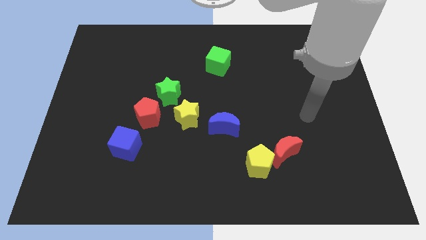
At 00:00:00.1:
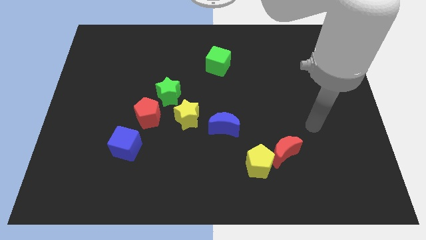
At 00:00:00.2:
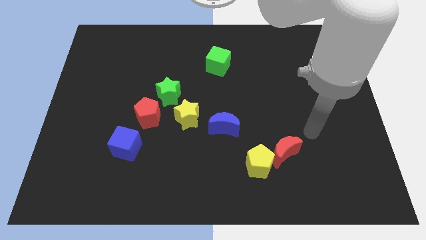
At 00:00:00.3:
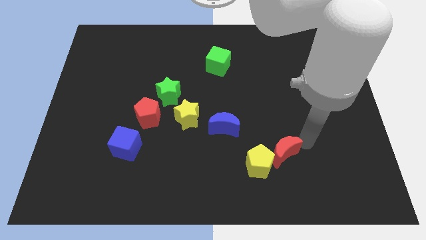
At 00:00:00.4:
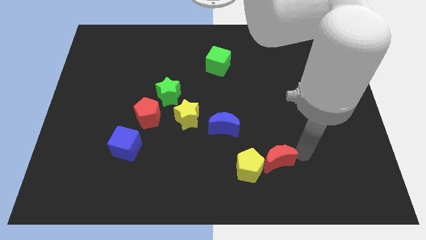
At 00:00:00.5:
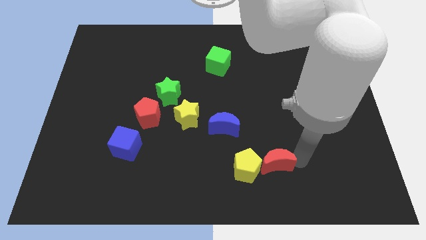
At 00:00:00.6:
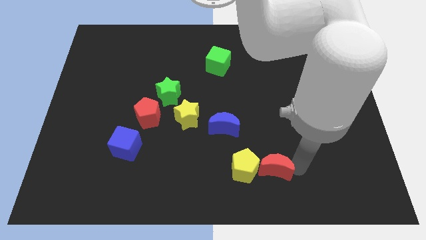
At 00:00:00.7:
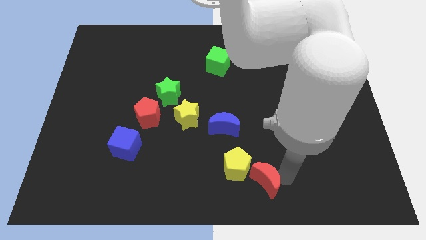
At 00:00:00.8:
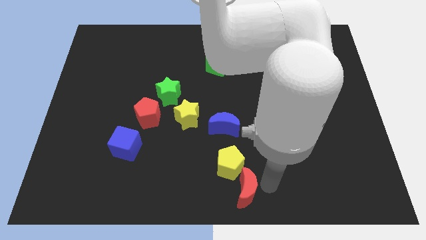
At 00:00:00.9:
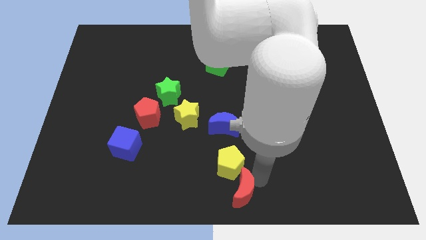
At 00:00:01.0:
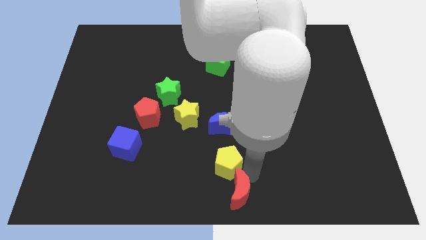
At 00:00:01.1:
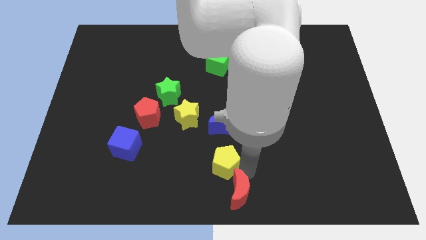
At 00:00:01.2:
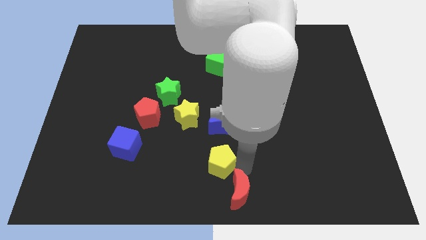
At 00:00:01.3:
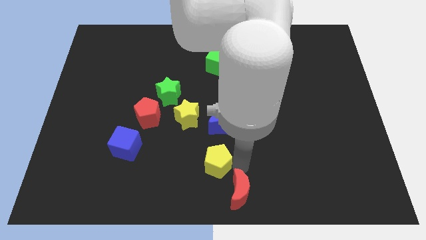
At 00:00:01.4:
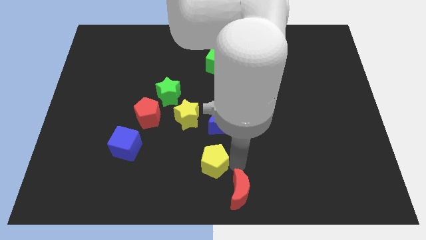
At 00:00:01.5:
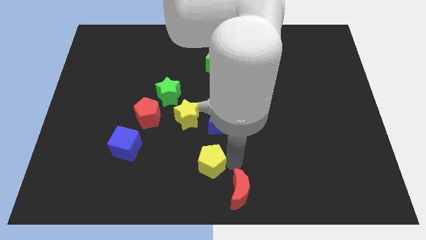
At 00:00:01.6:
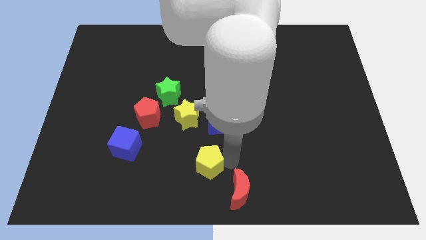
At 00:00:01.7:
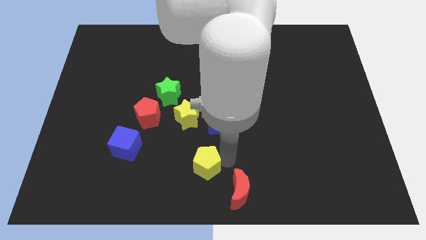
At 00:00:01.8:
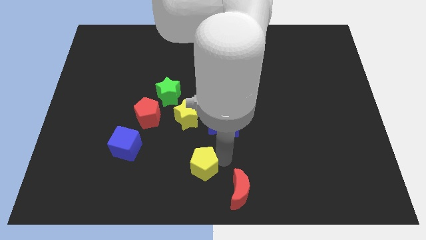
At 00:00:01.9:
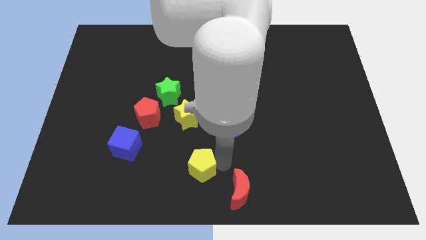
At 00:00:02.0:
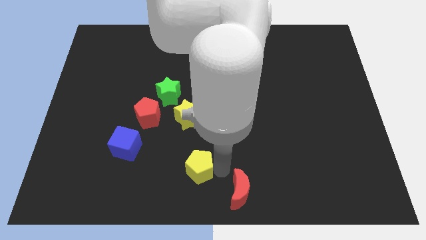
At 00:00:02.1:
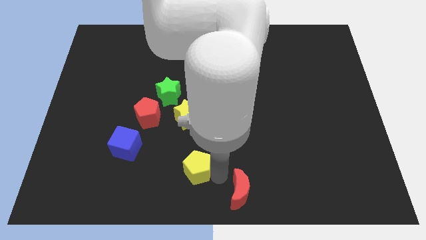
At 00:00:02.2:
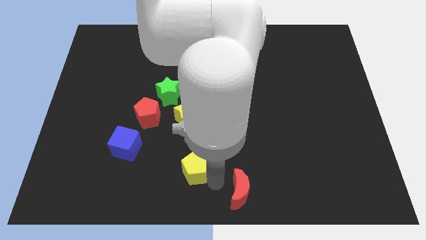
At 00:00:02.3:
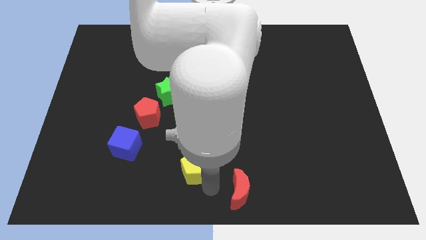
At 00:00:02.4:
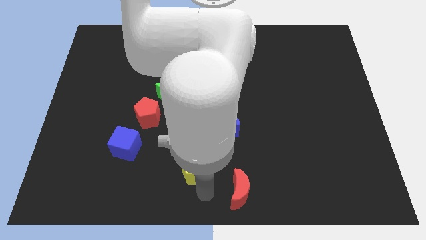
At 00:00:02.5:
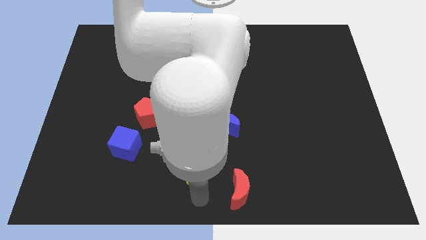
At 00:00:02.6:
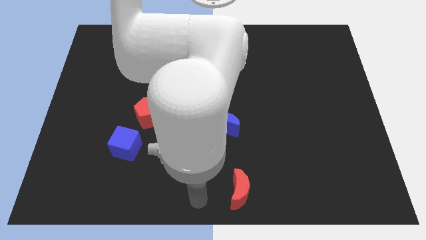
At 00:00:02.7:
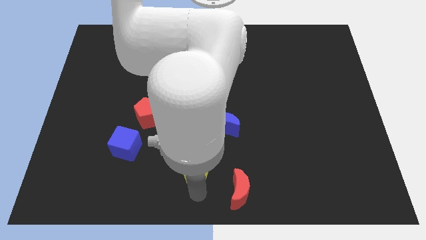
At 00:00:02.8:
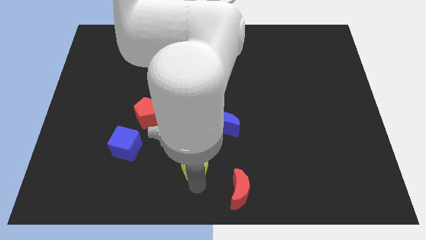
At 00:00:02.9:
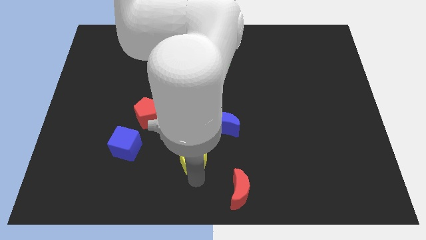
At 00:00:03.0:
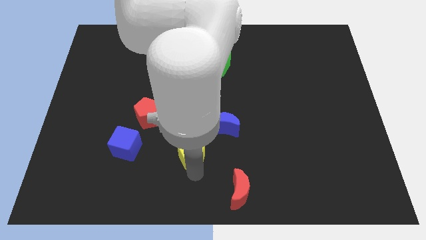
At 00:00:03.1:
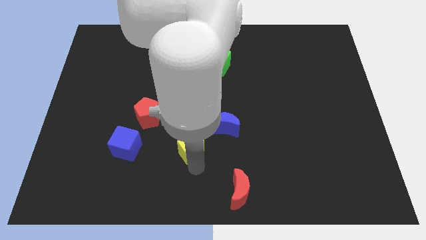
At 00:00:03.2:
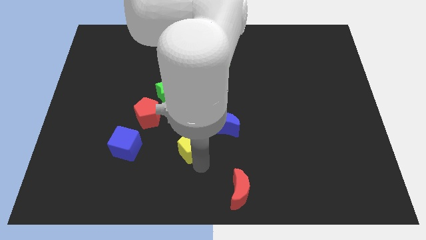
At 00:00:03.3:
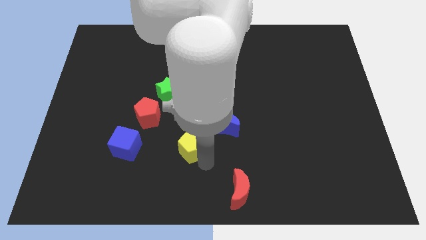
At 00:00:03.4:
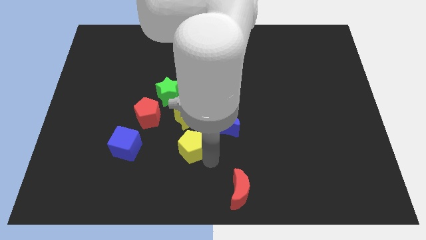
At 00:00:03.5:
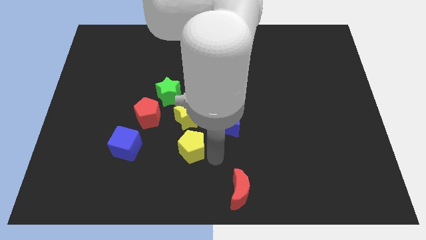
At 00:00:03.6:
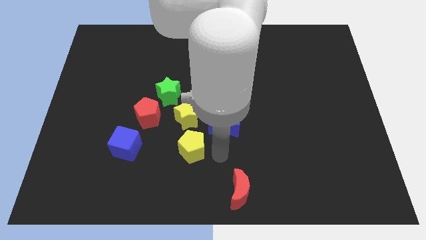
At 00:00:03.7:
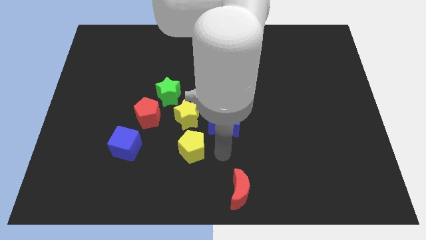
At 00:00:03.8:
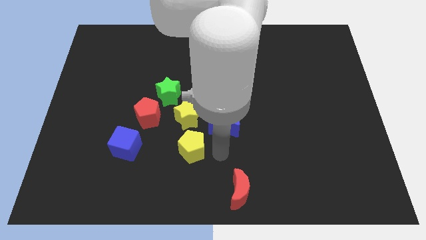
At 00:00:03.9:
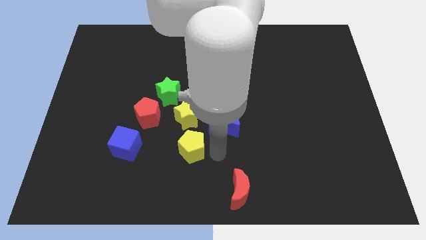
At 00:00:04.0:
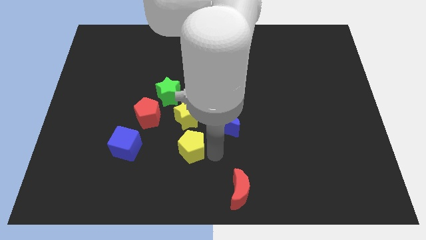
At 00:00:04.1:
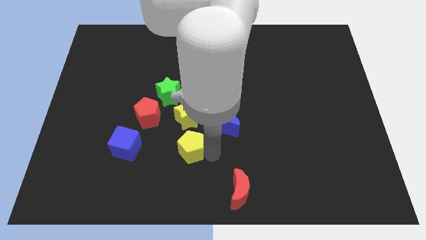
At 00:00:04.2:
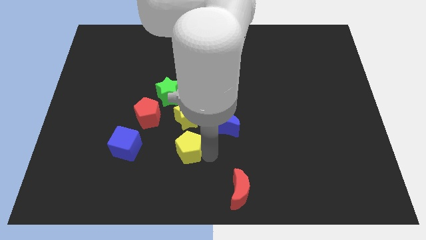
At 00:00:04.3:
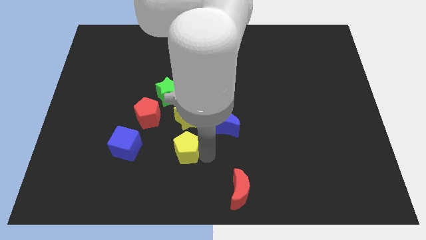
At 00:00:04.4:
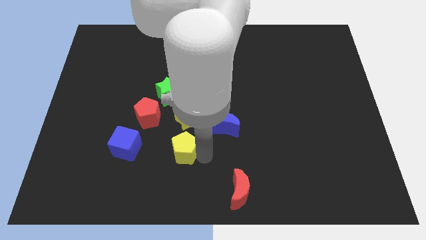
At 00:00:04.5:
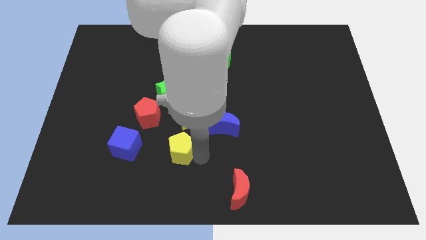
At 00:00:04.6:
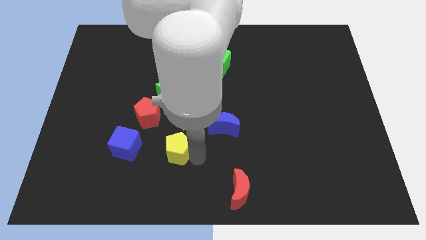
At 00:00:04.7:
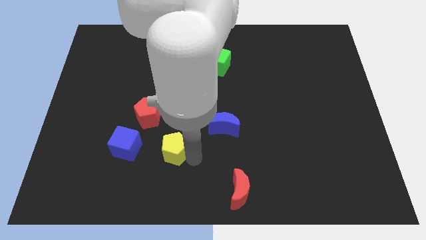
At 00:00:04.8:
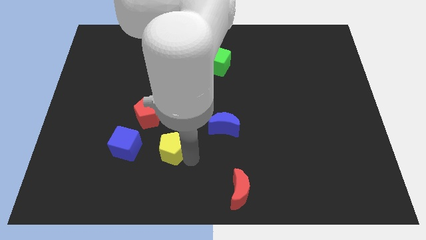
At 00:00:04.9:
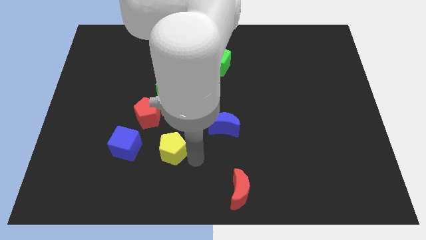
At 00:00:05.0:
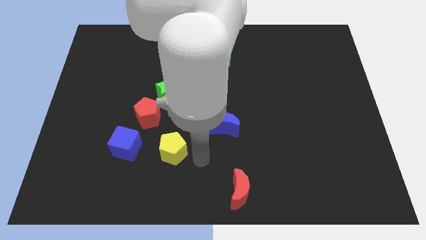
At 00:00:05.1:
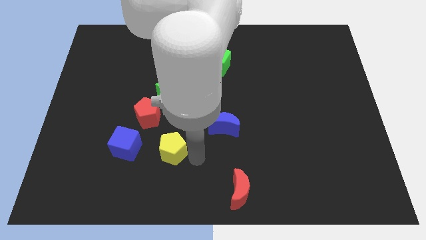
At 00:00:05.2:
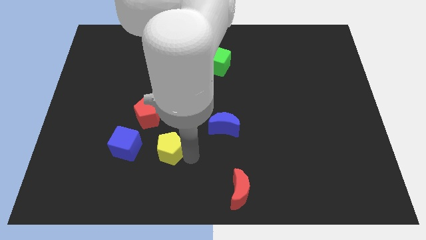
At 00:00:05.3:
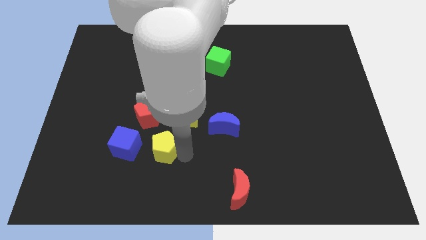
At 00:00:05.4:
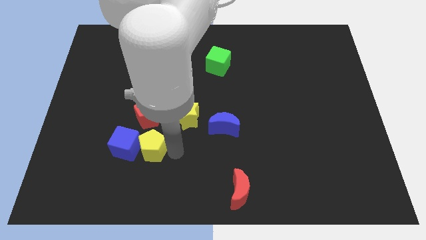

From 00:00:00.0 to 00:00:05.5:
push the yellow pentagon next to the blue cube
